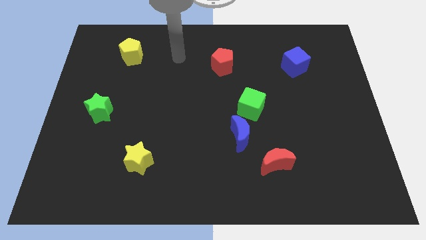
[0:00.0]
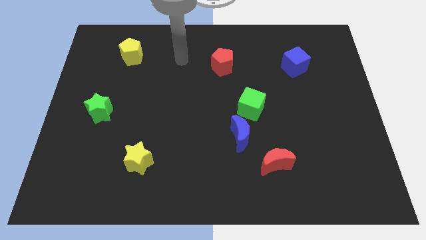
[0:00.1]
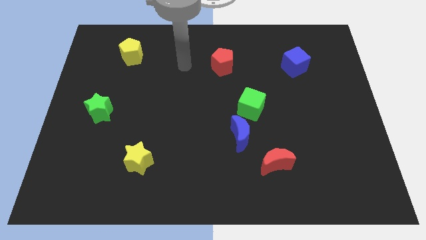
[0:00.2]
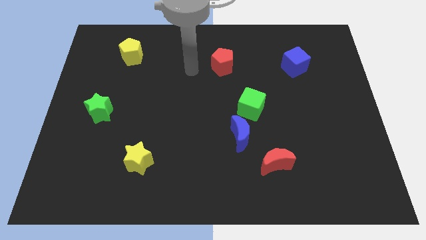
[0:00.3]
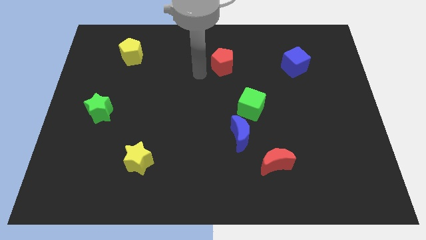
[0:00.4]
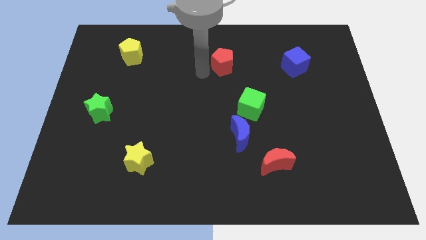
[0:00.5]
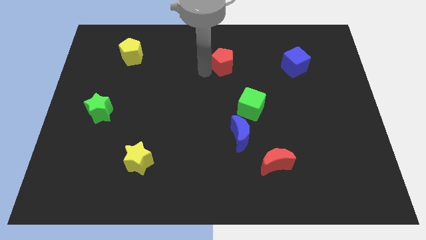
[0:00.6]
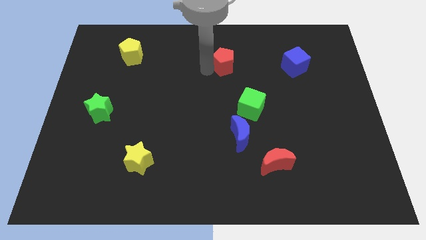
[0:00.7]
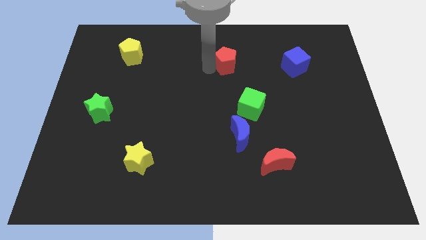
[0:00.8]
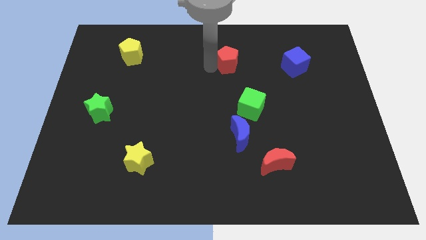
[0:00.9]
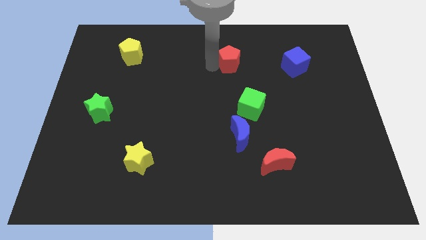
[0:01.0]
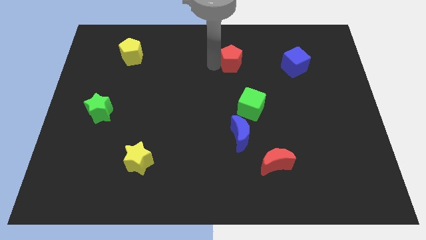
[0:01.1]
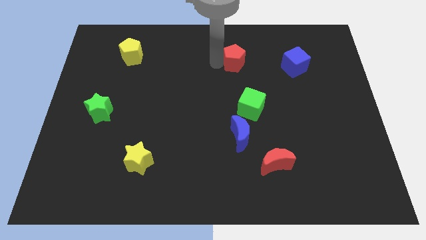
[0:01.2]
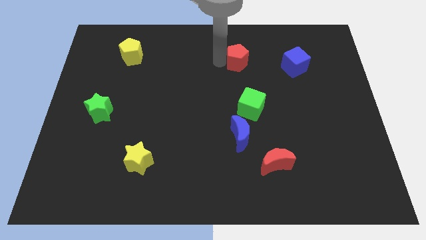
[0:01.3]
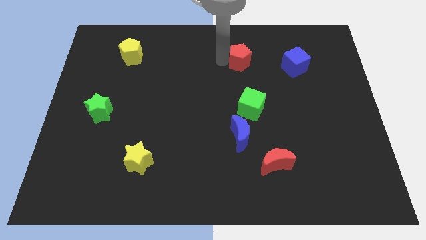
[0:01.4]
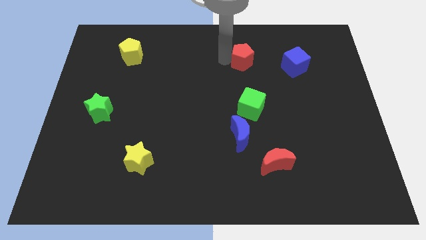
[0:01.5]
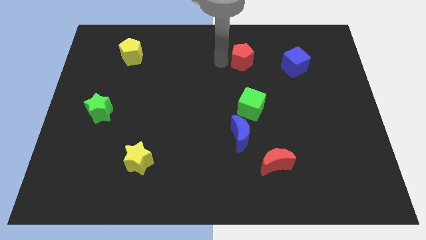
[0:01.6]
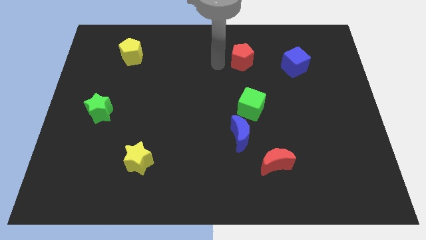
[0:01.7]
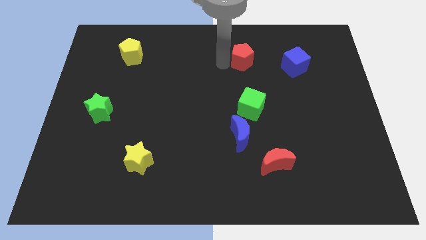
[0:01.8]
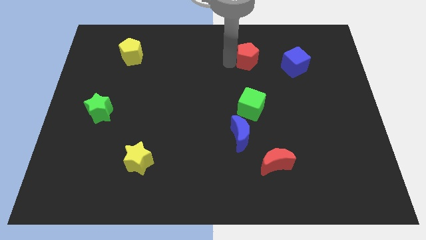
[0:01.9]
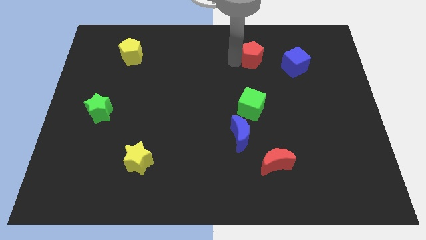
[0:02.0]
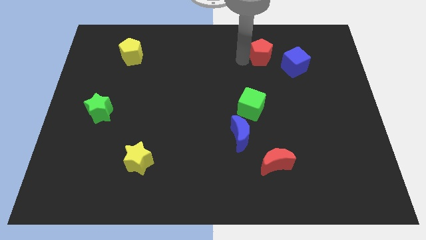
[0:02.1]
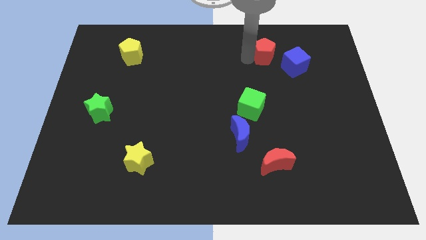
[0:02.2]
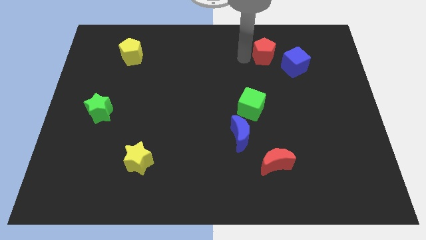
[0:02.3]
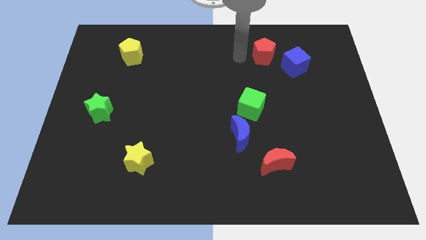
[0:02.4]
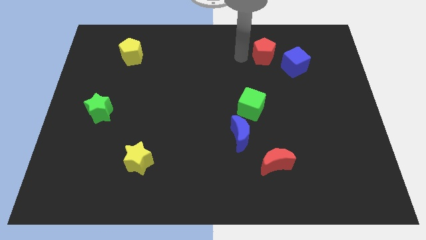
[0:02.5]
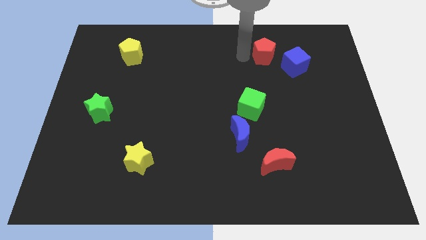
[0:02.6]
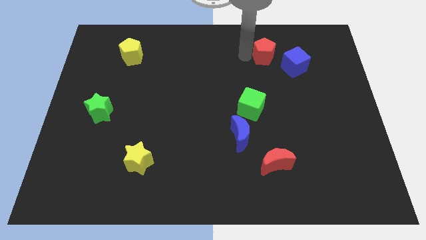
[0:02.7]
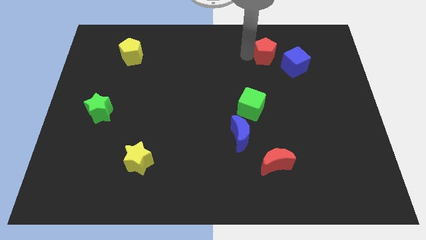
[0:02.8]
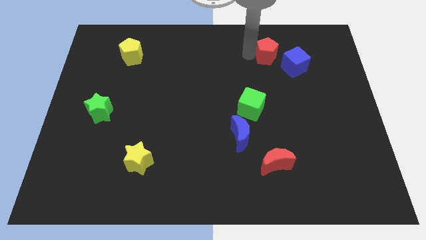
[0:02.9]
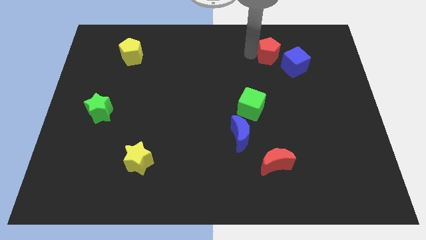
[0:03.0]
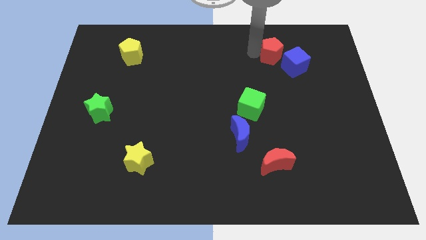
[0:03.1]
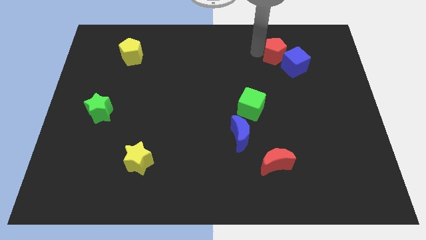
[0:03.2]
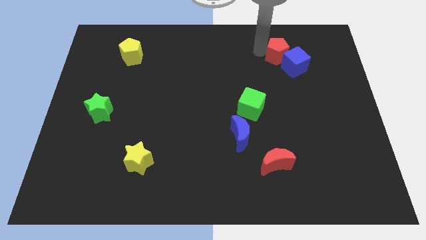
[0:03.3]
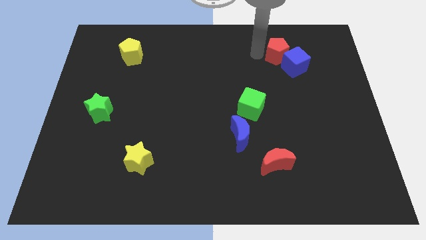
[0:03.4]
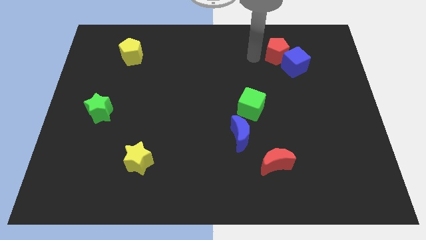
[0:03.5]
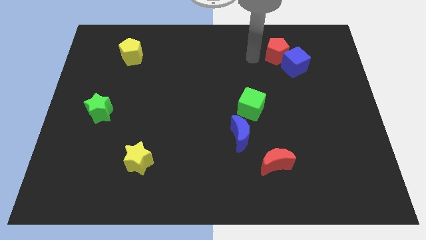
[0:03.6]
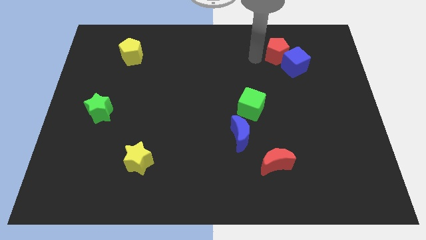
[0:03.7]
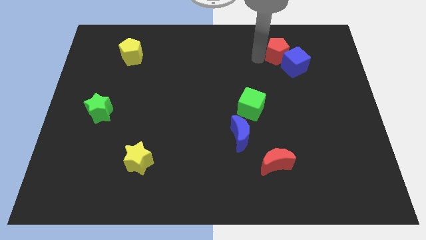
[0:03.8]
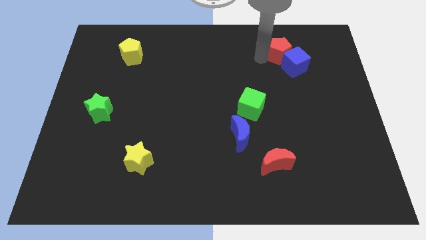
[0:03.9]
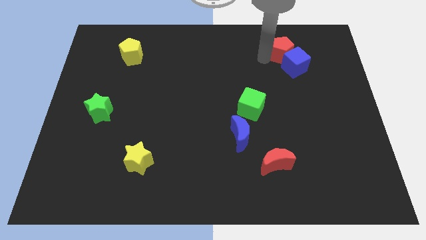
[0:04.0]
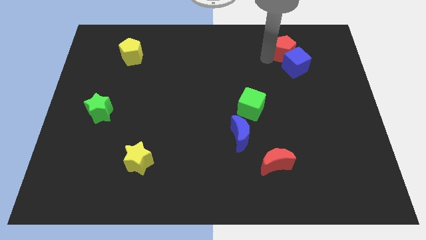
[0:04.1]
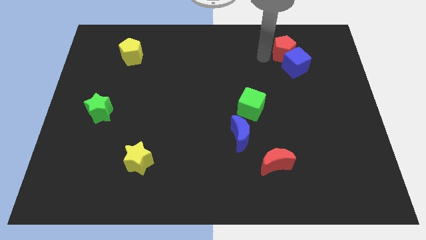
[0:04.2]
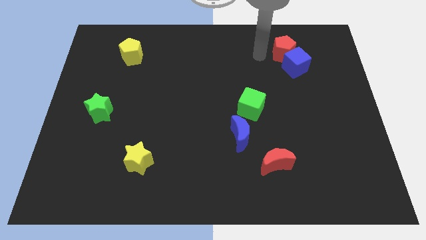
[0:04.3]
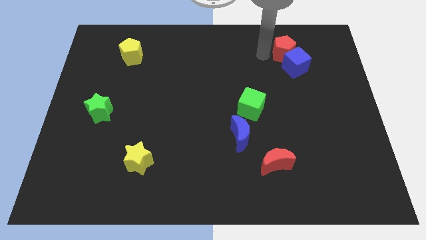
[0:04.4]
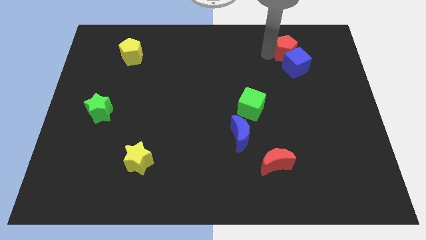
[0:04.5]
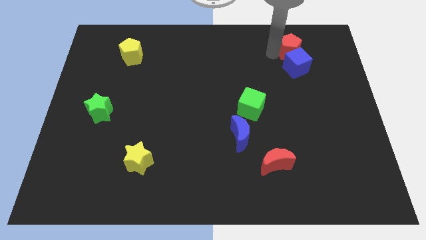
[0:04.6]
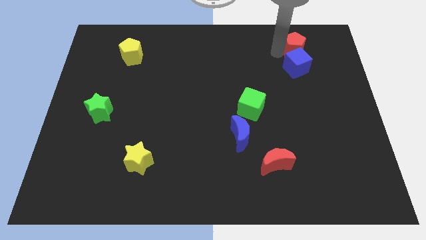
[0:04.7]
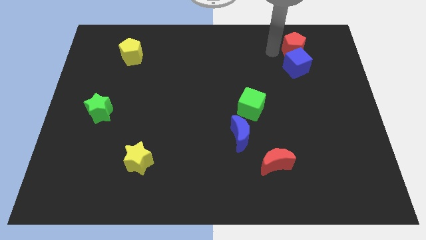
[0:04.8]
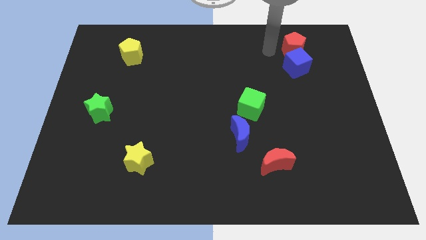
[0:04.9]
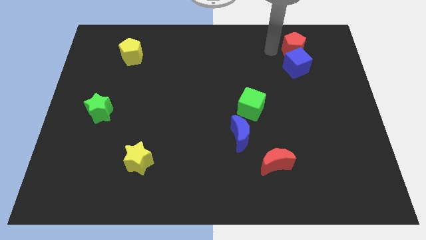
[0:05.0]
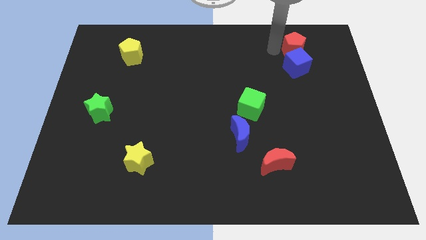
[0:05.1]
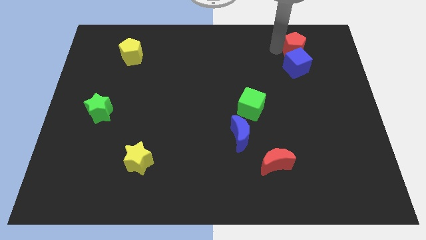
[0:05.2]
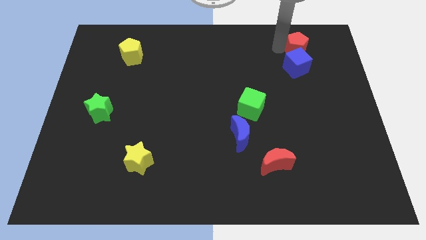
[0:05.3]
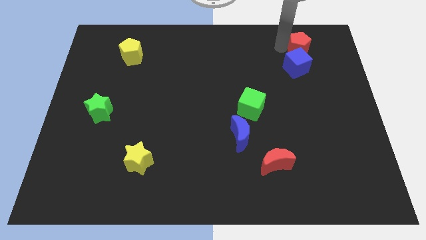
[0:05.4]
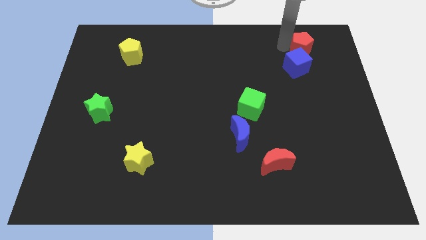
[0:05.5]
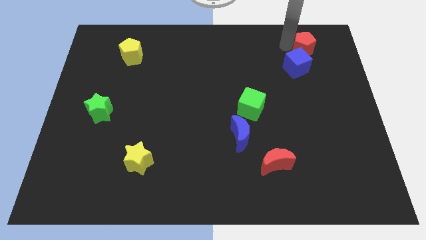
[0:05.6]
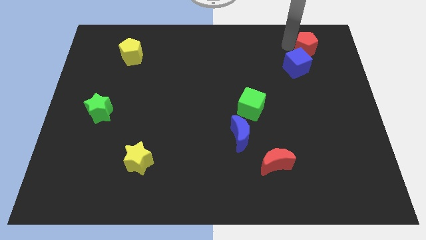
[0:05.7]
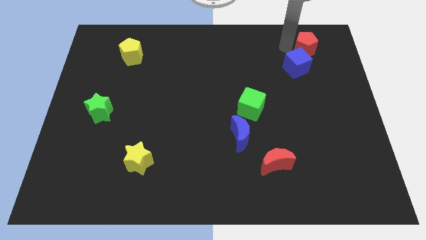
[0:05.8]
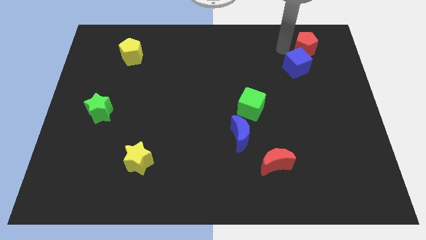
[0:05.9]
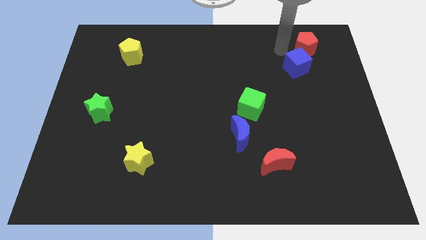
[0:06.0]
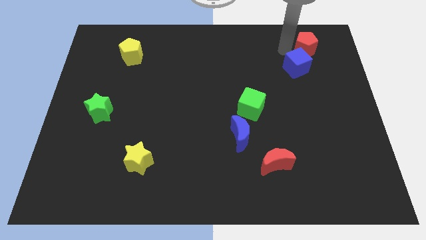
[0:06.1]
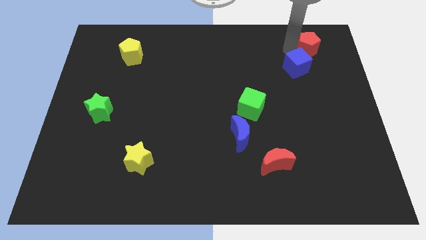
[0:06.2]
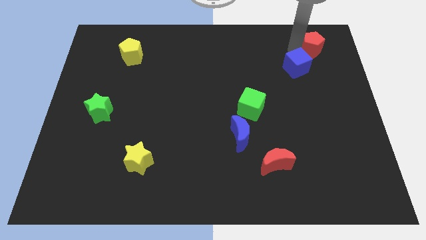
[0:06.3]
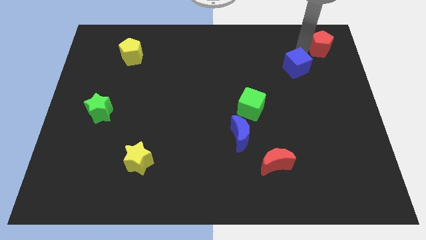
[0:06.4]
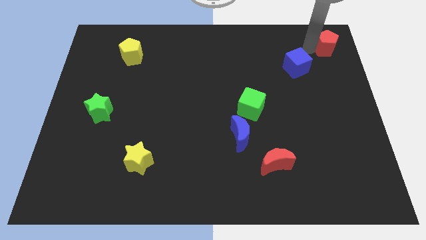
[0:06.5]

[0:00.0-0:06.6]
move the red pentagon to the top right corner
